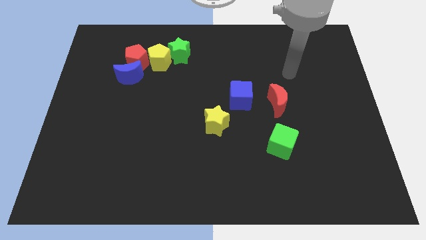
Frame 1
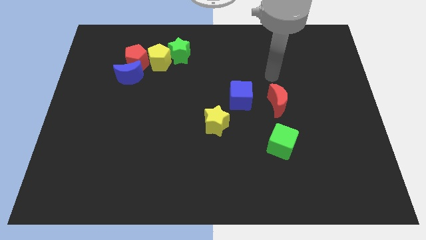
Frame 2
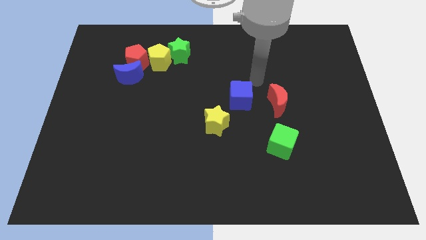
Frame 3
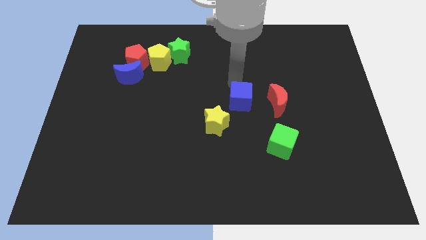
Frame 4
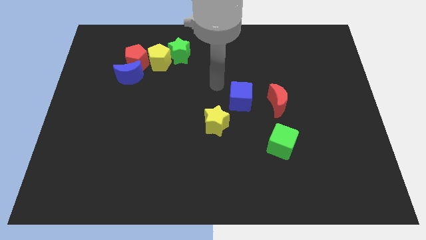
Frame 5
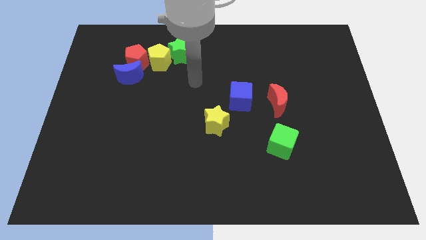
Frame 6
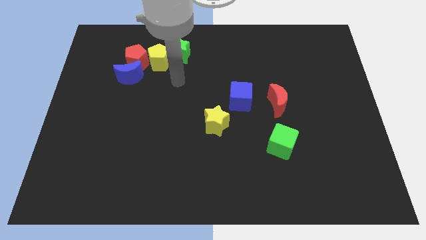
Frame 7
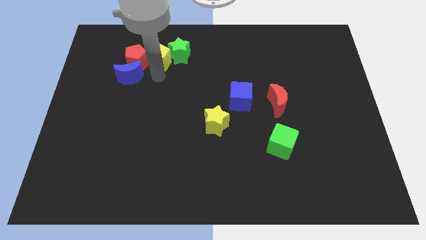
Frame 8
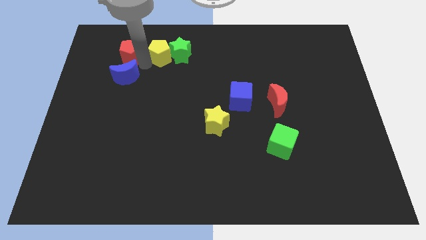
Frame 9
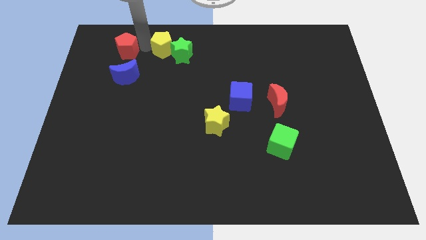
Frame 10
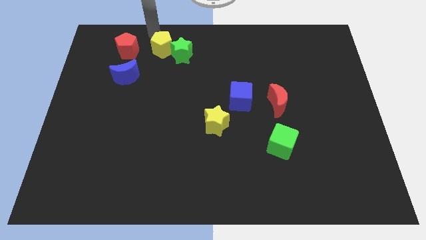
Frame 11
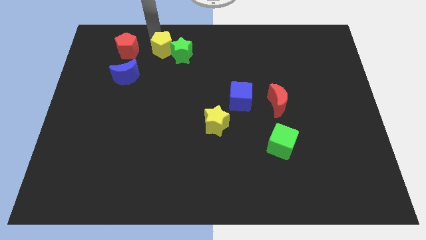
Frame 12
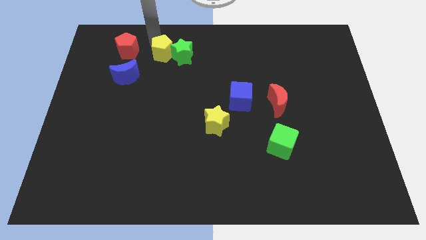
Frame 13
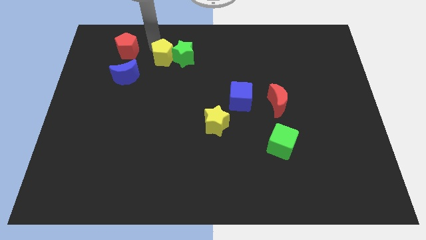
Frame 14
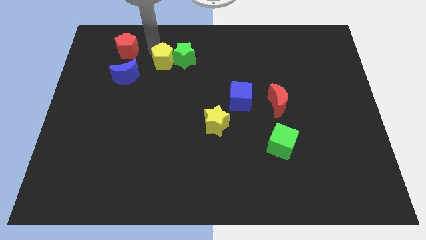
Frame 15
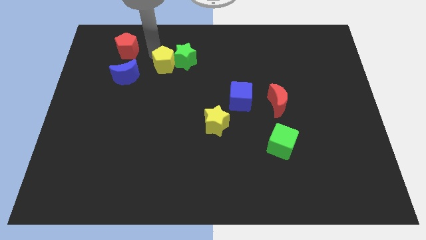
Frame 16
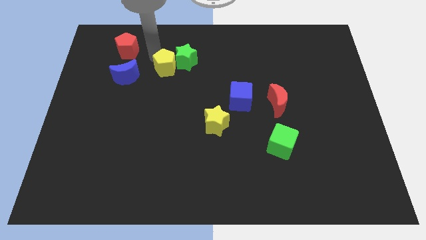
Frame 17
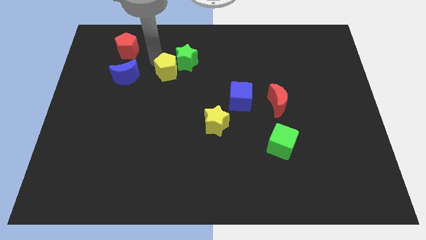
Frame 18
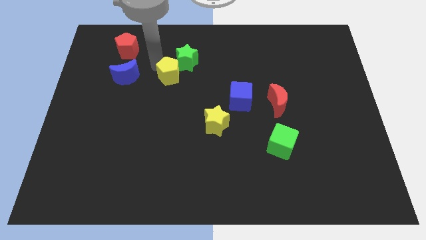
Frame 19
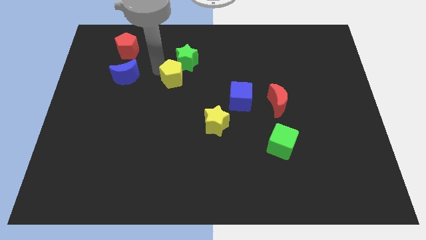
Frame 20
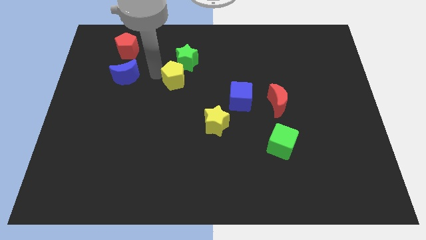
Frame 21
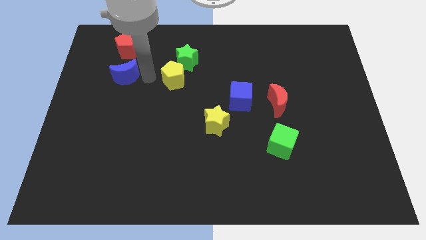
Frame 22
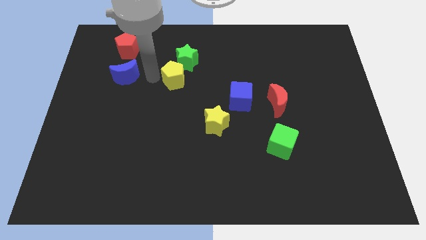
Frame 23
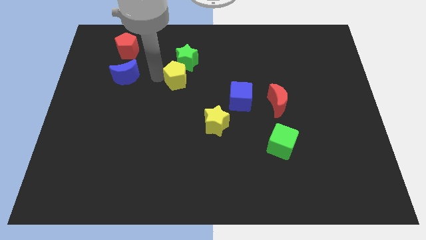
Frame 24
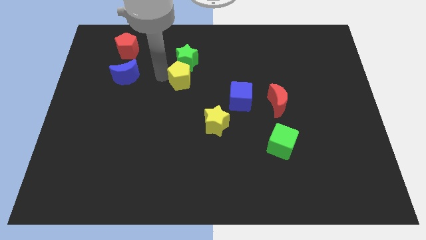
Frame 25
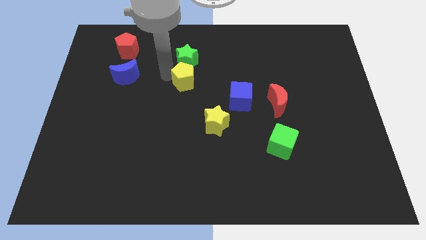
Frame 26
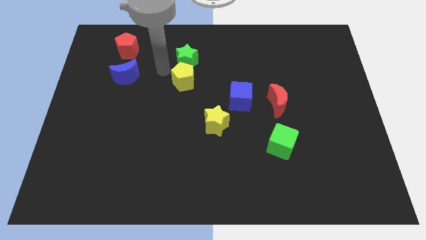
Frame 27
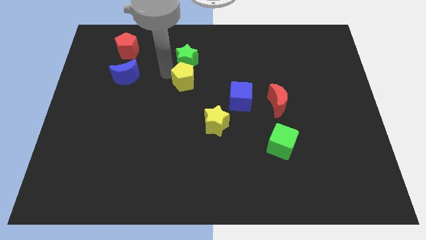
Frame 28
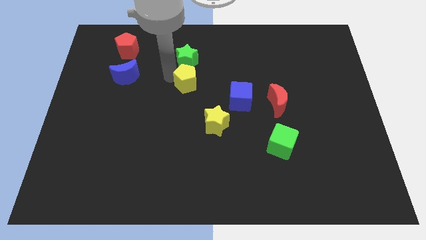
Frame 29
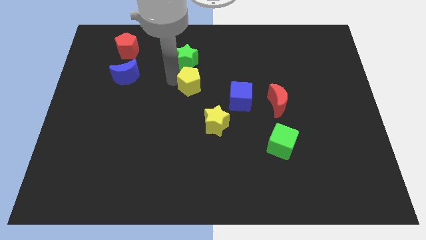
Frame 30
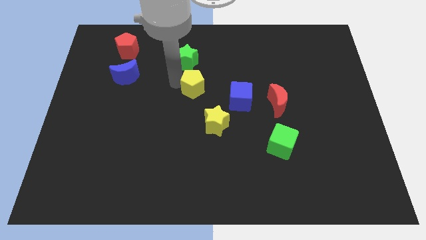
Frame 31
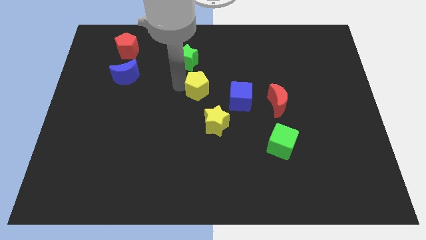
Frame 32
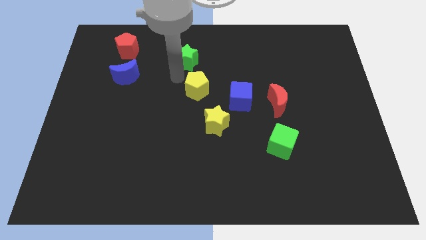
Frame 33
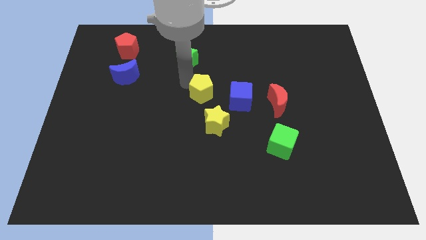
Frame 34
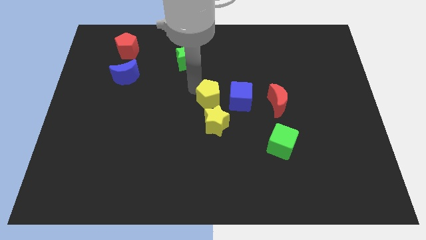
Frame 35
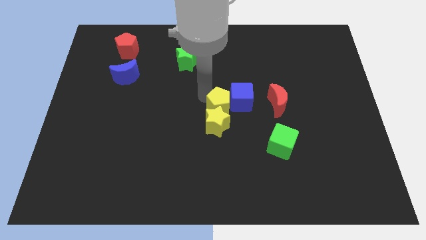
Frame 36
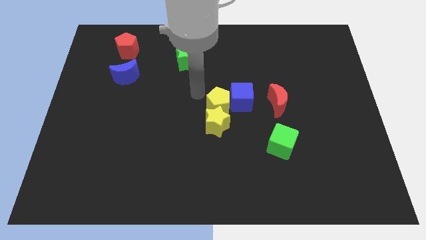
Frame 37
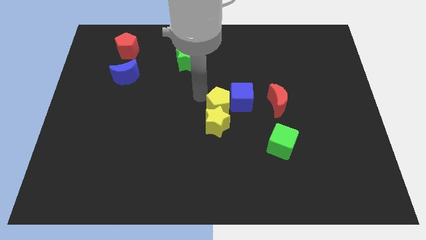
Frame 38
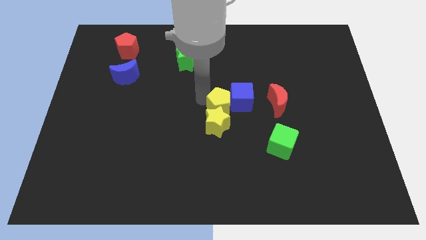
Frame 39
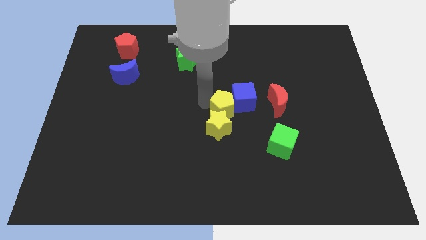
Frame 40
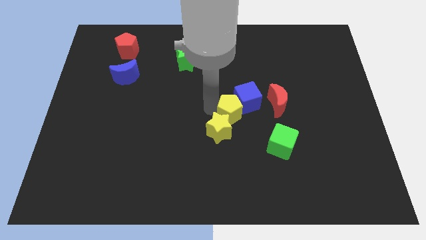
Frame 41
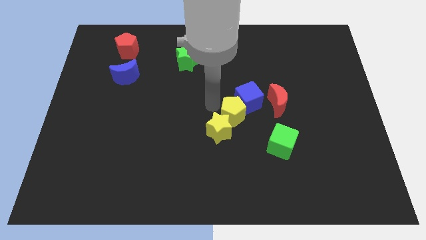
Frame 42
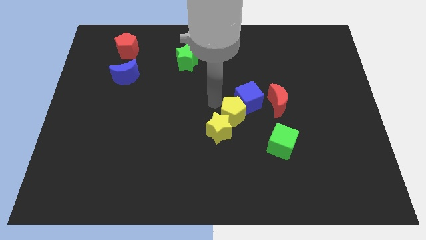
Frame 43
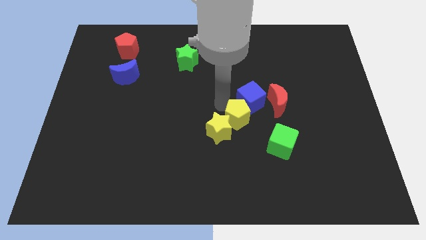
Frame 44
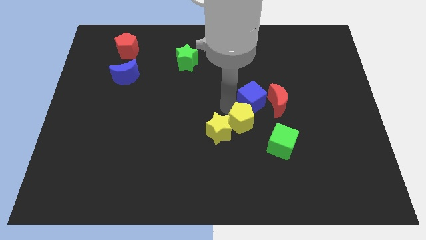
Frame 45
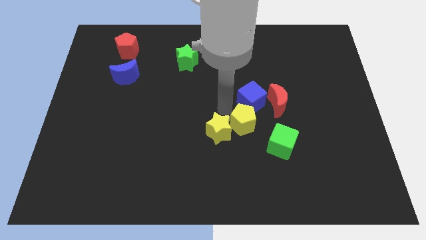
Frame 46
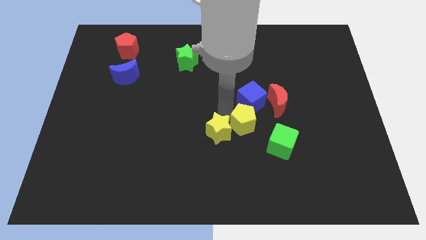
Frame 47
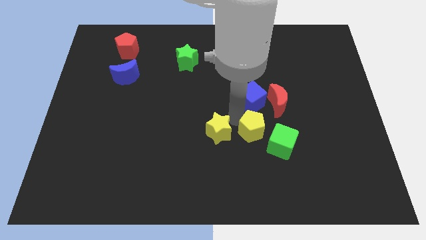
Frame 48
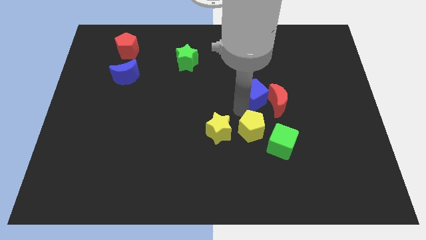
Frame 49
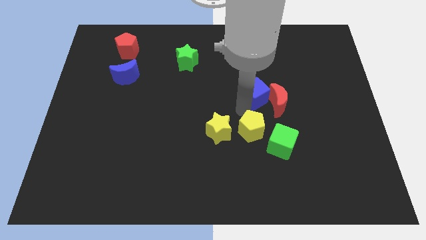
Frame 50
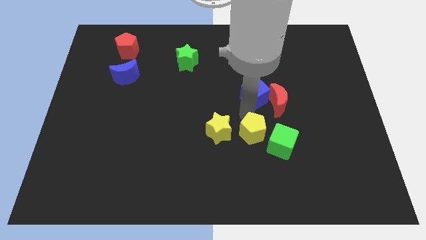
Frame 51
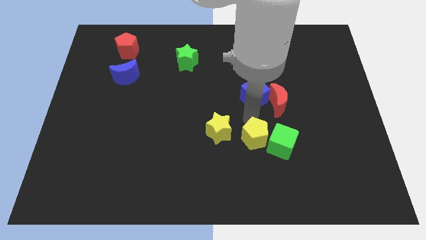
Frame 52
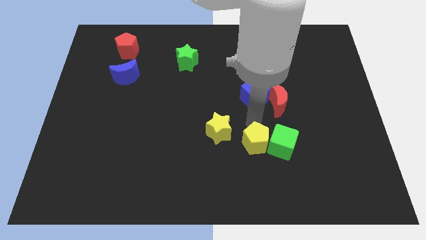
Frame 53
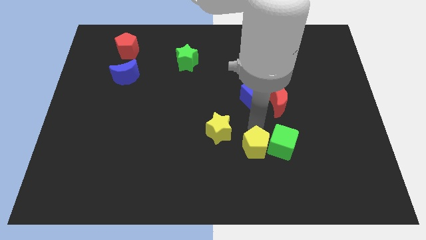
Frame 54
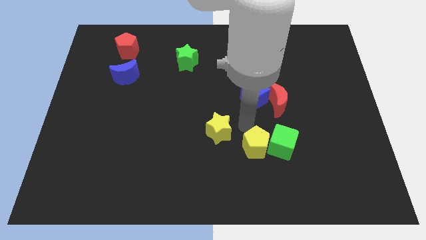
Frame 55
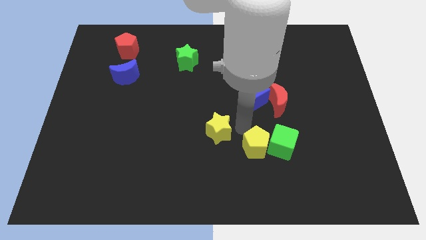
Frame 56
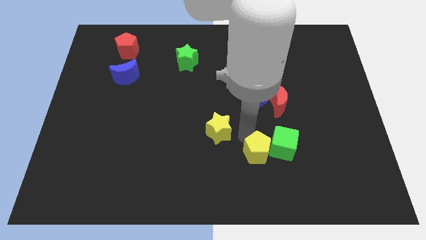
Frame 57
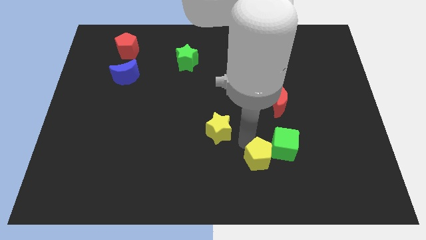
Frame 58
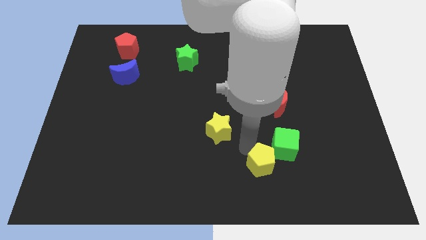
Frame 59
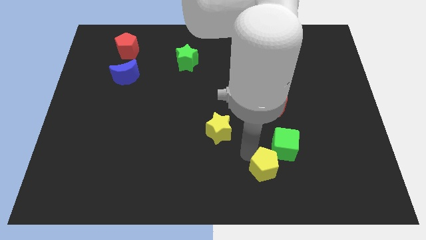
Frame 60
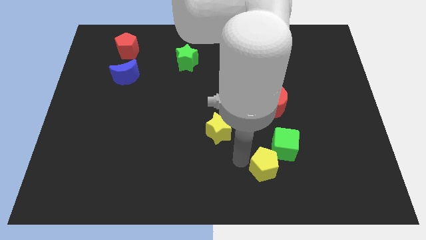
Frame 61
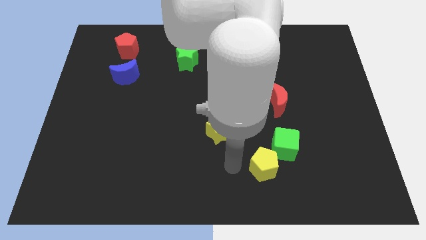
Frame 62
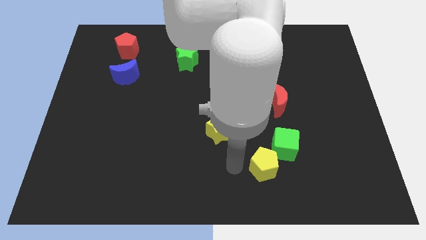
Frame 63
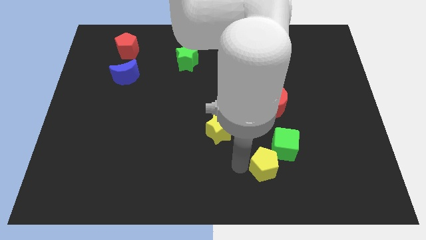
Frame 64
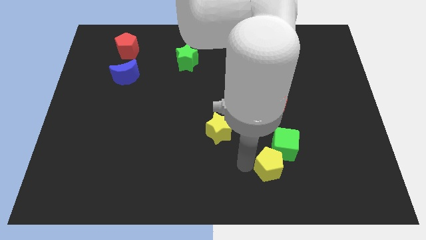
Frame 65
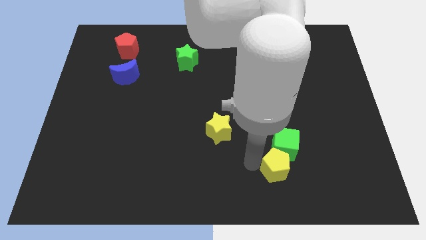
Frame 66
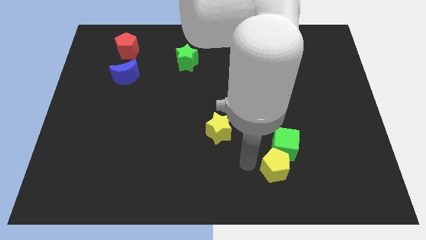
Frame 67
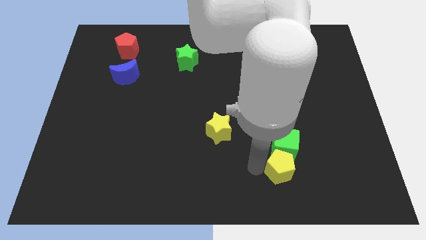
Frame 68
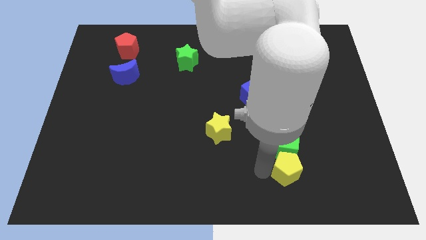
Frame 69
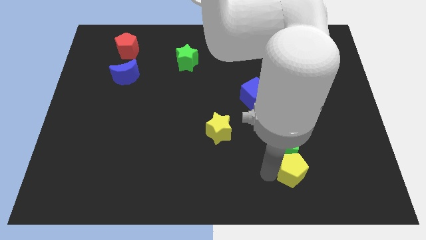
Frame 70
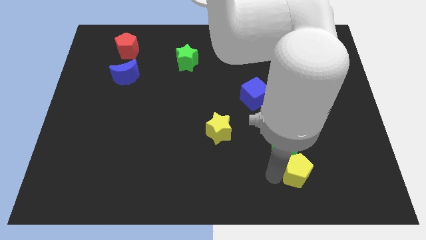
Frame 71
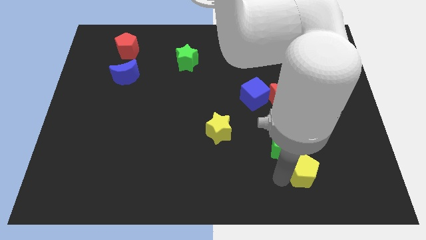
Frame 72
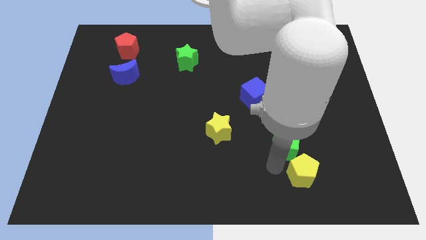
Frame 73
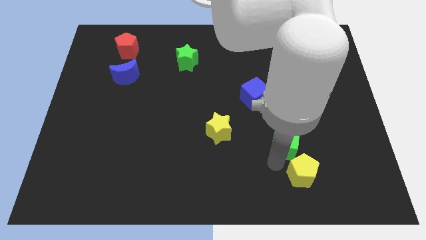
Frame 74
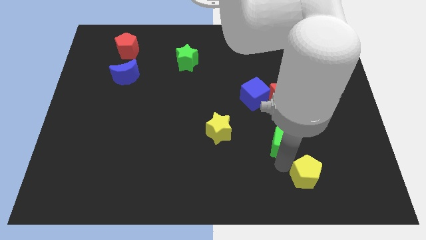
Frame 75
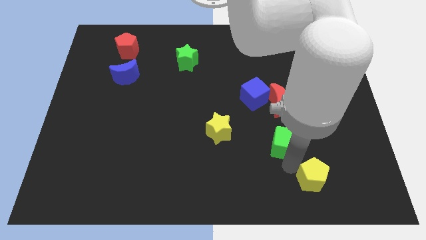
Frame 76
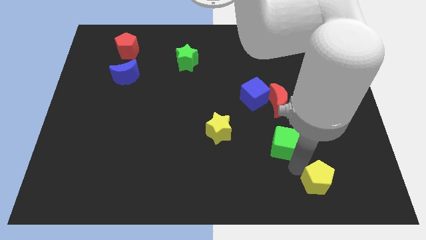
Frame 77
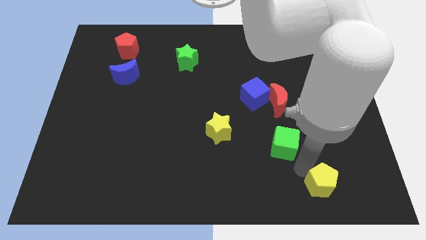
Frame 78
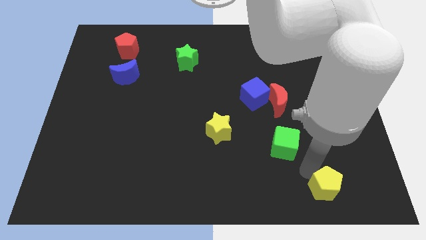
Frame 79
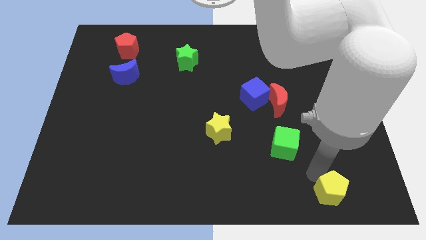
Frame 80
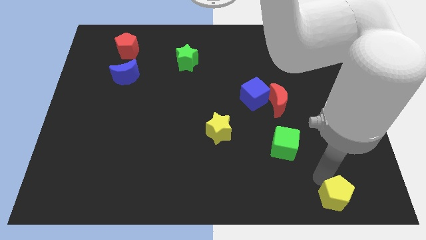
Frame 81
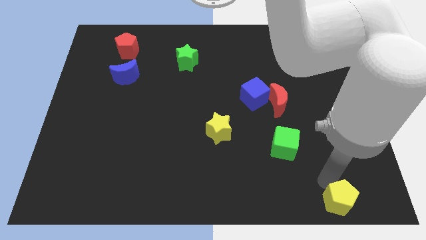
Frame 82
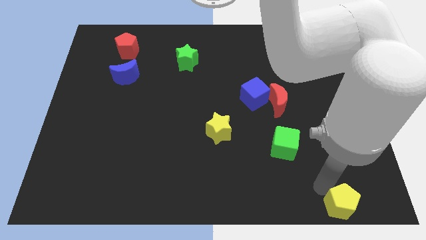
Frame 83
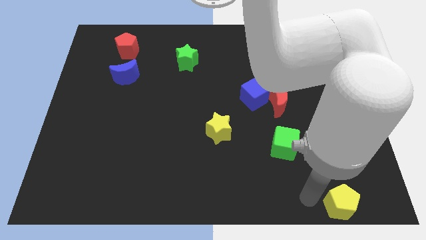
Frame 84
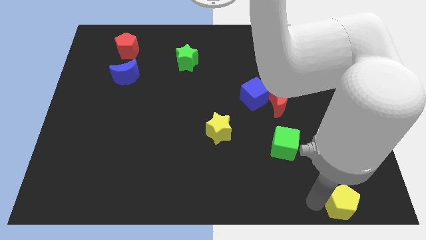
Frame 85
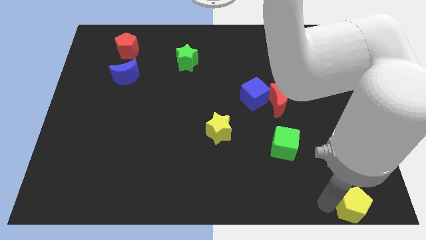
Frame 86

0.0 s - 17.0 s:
push the yellow pentagon to the bottom right of the board
